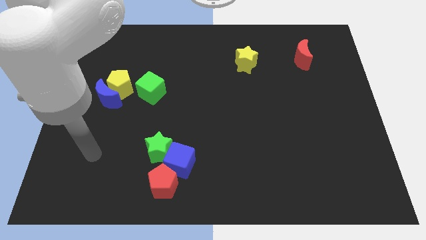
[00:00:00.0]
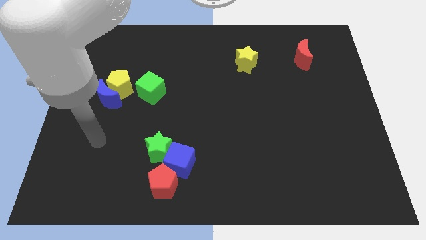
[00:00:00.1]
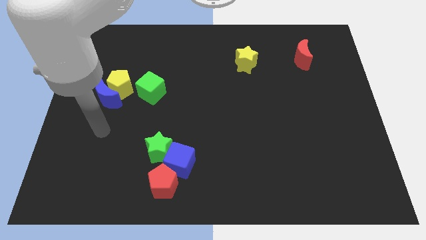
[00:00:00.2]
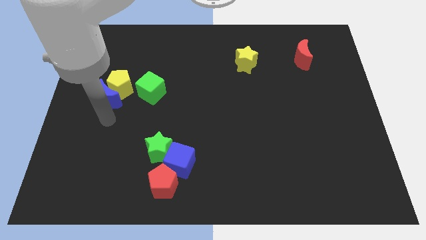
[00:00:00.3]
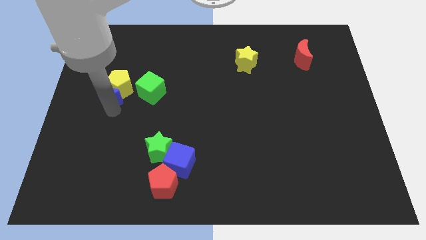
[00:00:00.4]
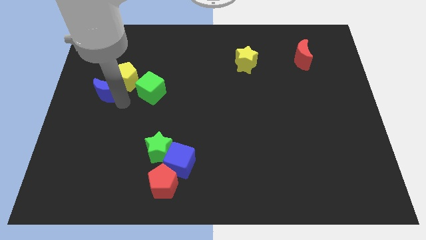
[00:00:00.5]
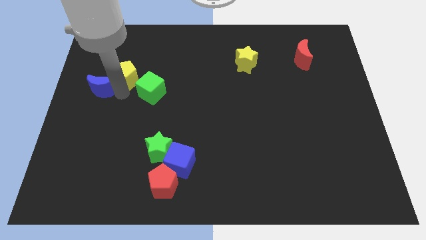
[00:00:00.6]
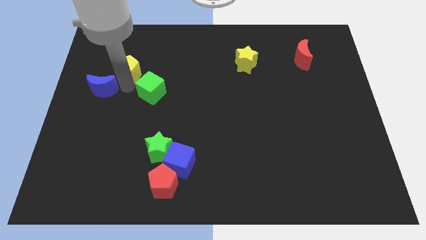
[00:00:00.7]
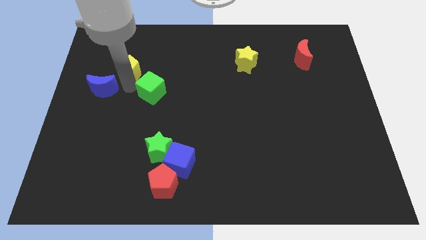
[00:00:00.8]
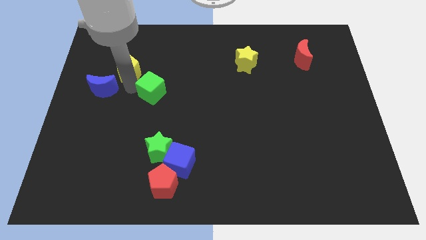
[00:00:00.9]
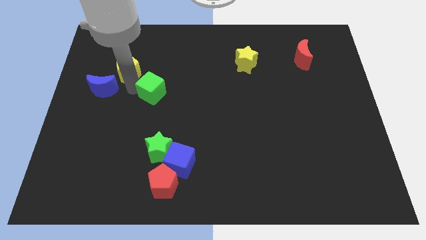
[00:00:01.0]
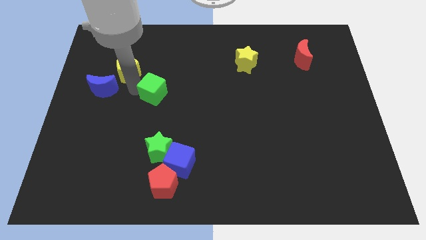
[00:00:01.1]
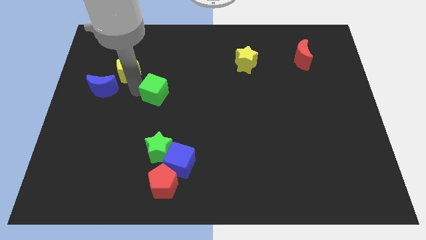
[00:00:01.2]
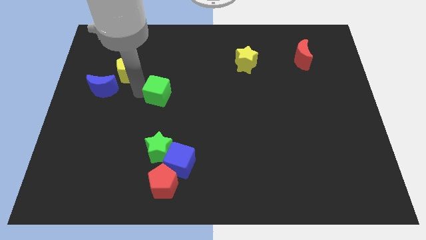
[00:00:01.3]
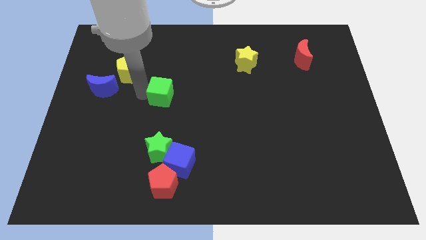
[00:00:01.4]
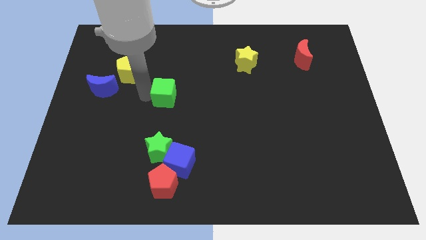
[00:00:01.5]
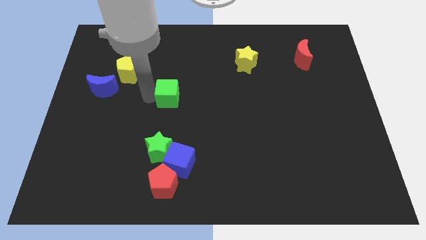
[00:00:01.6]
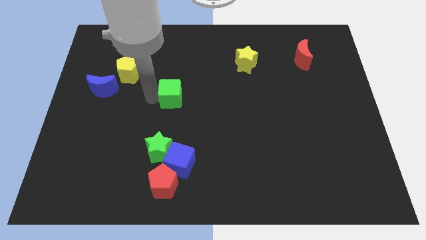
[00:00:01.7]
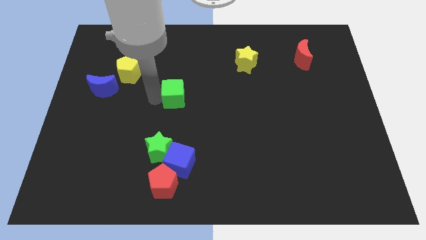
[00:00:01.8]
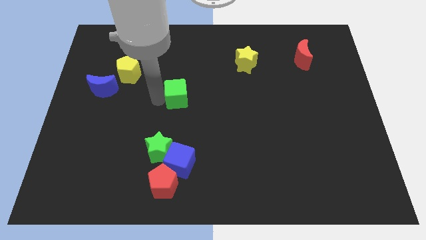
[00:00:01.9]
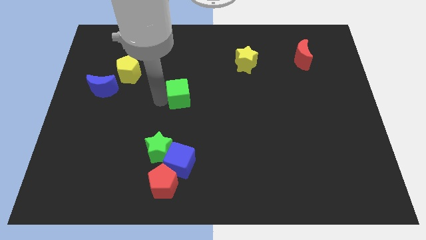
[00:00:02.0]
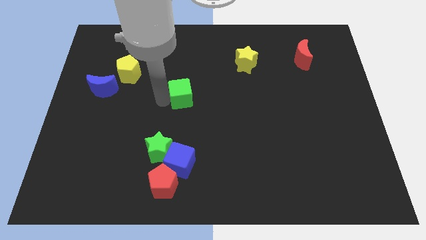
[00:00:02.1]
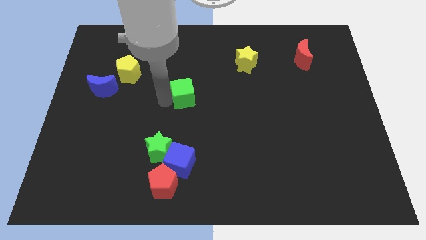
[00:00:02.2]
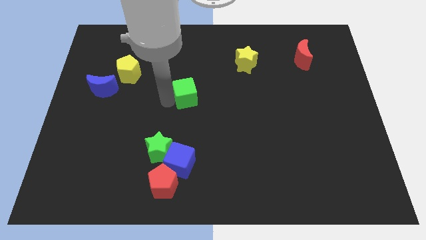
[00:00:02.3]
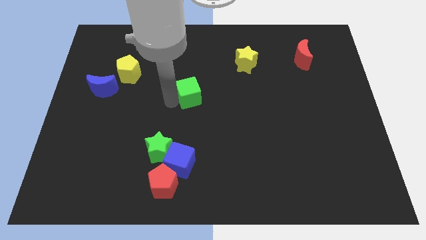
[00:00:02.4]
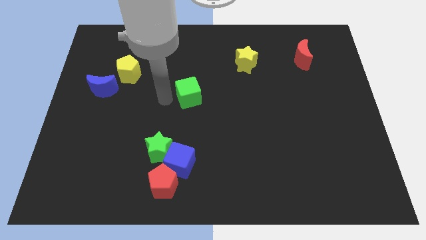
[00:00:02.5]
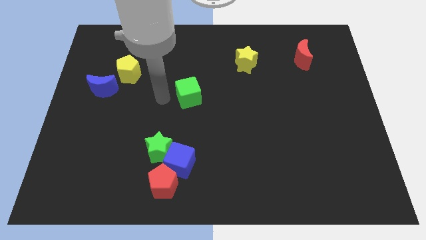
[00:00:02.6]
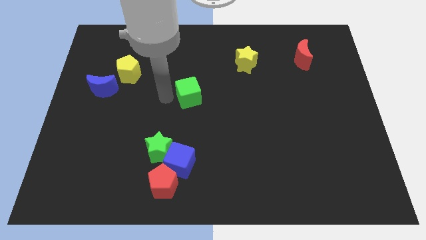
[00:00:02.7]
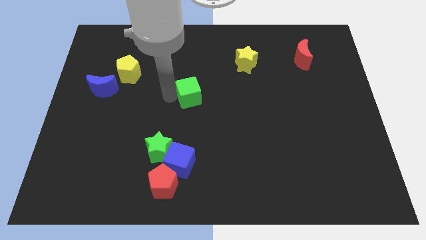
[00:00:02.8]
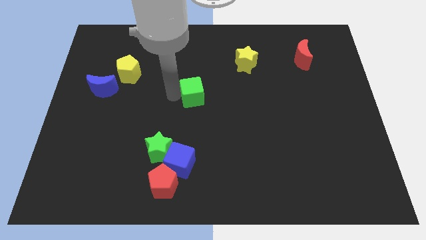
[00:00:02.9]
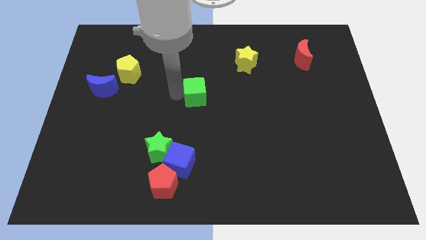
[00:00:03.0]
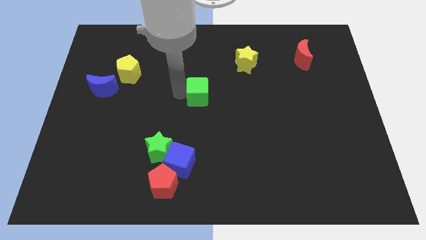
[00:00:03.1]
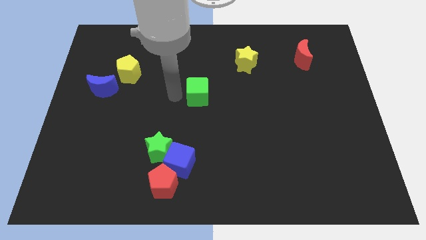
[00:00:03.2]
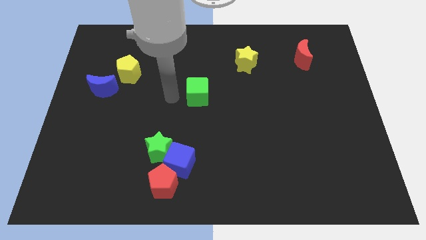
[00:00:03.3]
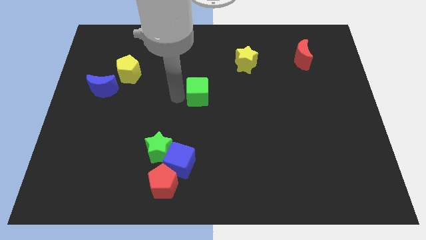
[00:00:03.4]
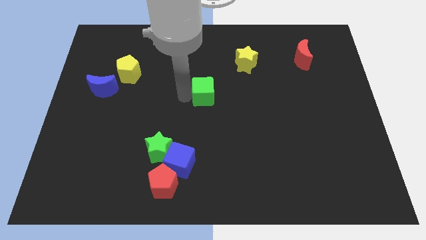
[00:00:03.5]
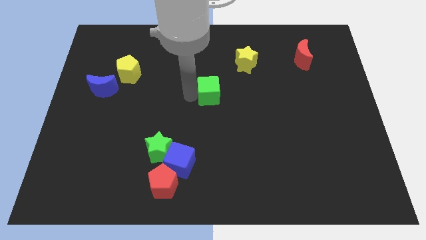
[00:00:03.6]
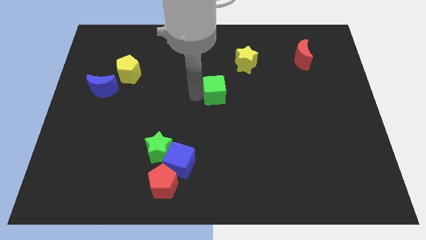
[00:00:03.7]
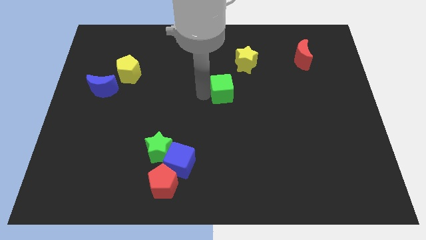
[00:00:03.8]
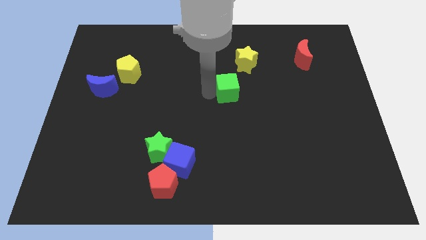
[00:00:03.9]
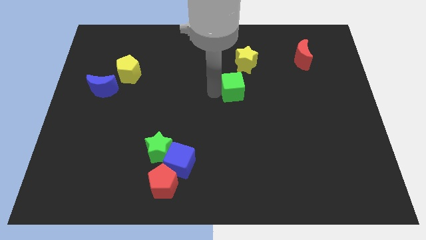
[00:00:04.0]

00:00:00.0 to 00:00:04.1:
move the green cube to the right

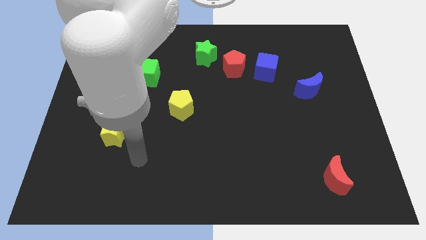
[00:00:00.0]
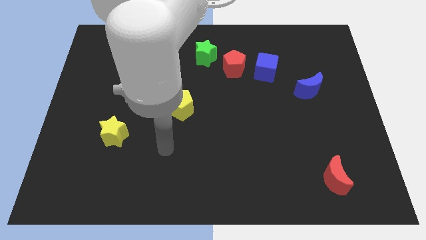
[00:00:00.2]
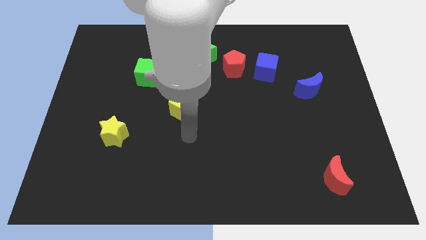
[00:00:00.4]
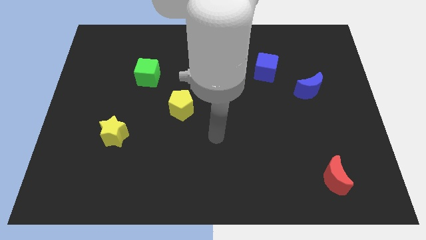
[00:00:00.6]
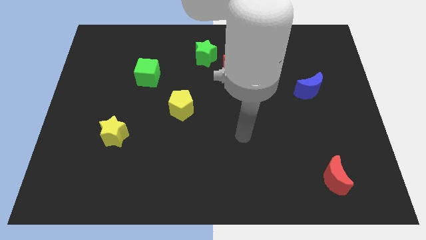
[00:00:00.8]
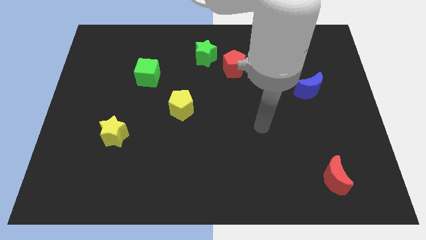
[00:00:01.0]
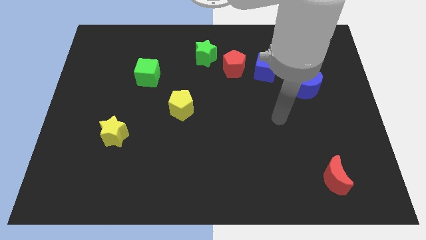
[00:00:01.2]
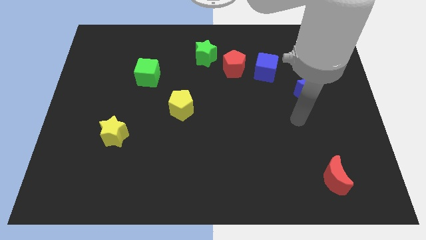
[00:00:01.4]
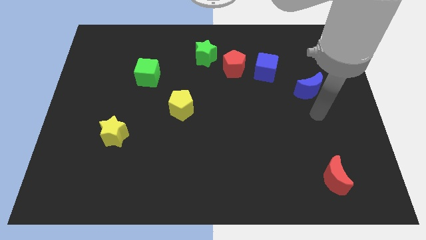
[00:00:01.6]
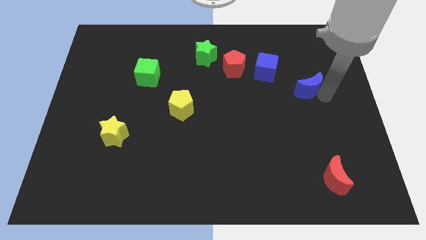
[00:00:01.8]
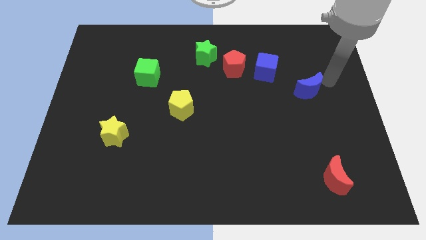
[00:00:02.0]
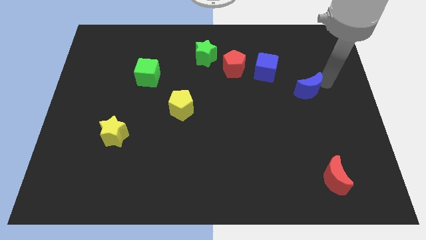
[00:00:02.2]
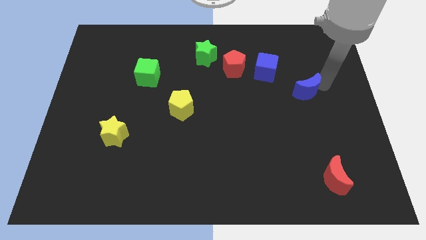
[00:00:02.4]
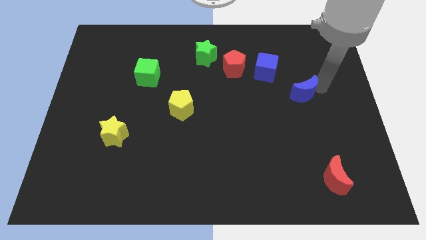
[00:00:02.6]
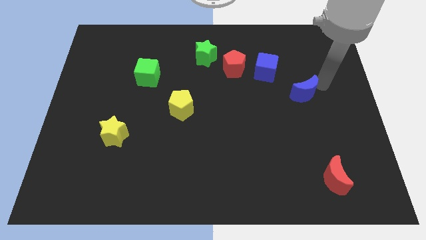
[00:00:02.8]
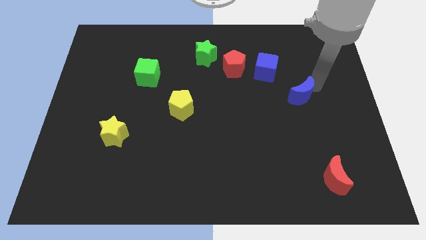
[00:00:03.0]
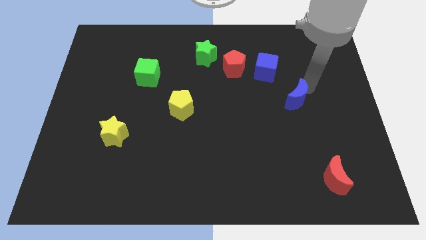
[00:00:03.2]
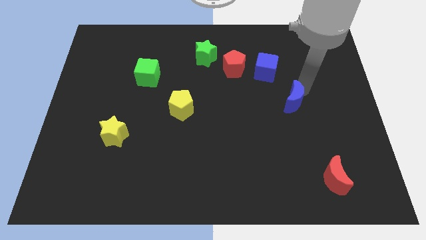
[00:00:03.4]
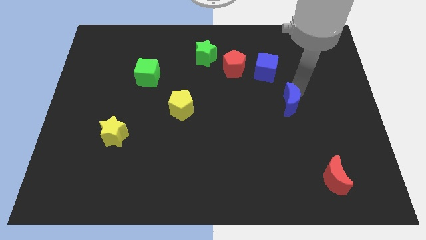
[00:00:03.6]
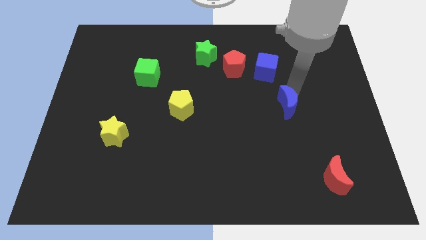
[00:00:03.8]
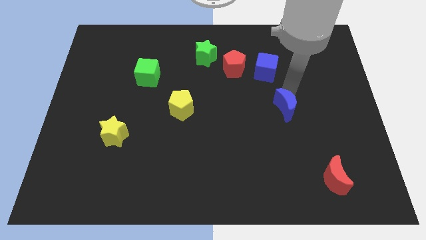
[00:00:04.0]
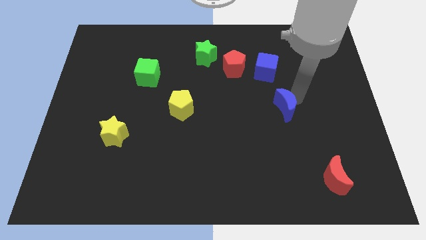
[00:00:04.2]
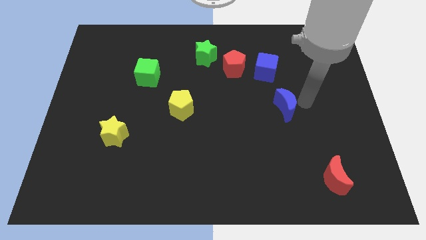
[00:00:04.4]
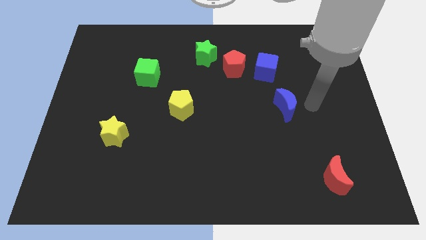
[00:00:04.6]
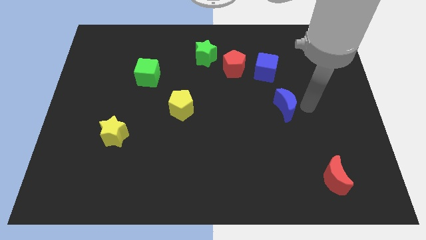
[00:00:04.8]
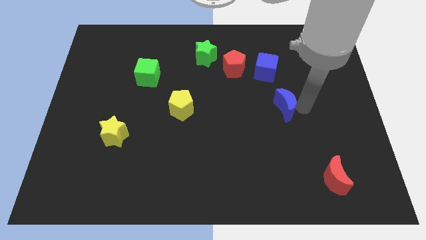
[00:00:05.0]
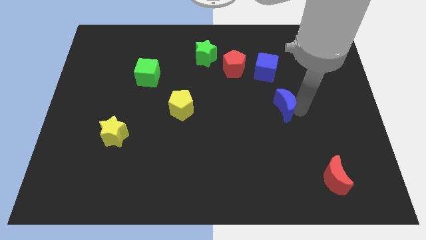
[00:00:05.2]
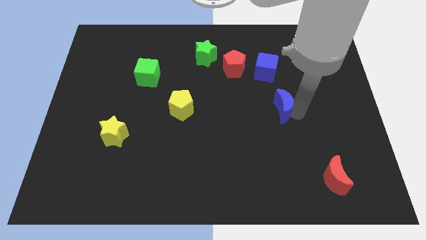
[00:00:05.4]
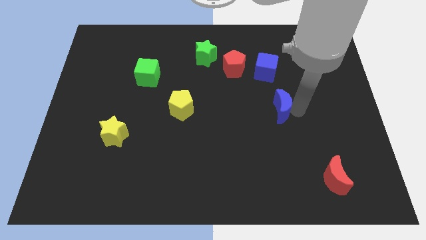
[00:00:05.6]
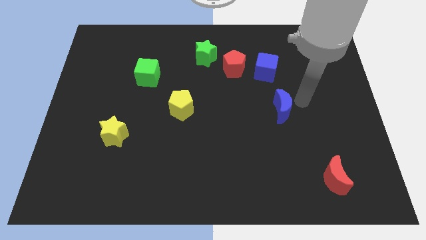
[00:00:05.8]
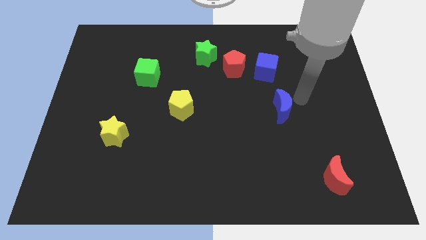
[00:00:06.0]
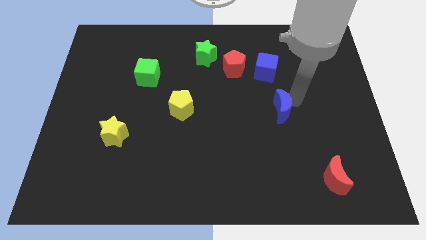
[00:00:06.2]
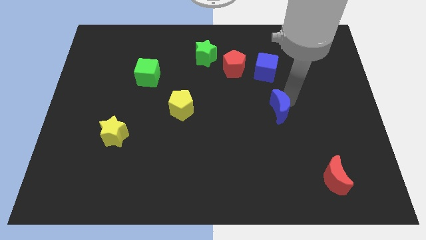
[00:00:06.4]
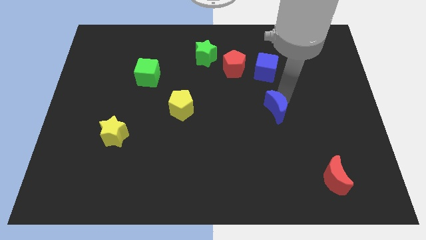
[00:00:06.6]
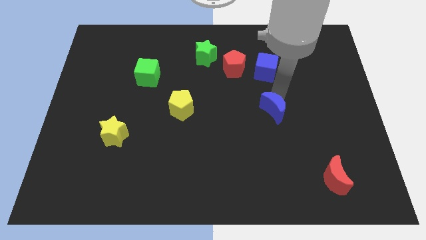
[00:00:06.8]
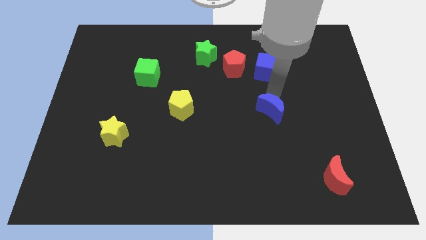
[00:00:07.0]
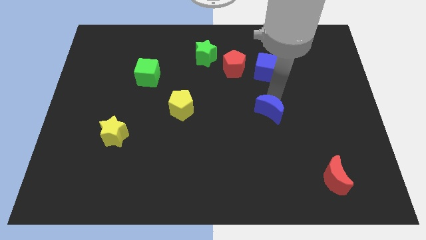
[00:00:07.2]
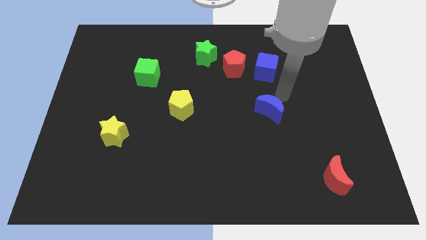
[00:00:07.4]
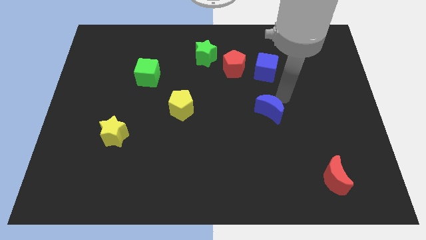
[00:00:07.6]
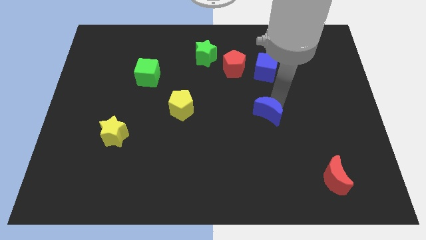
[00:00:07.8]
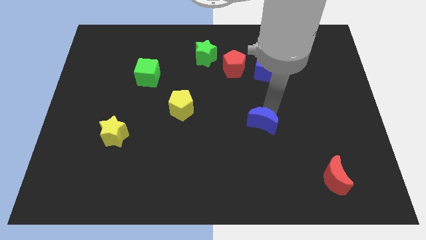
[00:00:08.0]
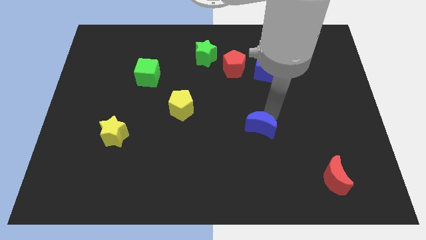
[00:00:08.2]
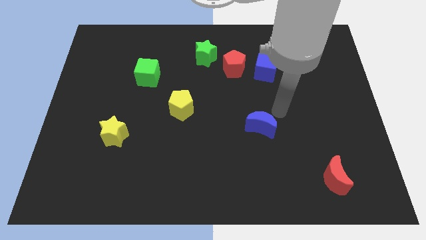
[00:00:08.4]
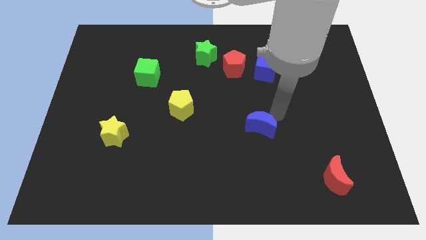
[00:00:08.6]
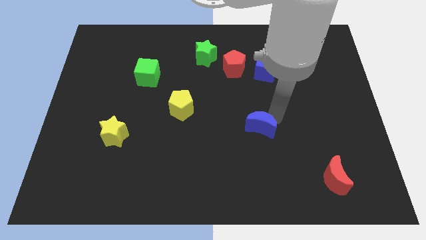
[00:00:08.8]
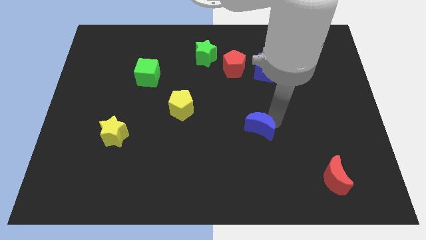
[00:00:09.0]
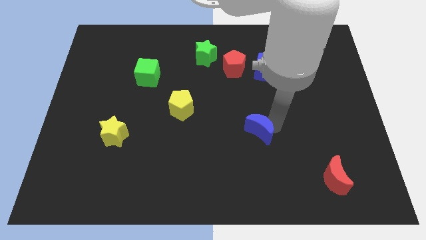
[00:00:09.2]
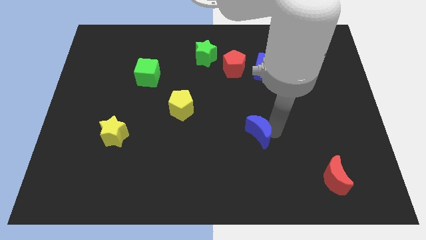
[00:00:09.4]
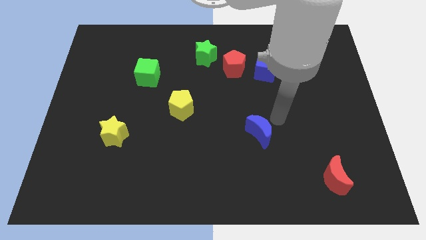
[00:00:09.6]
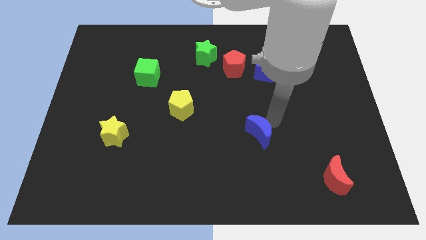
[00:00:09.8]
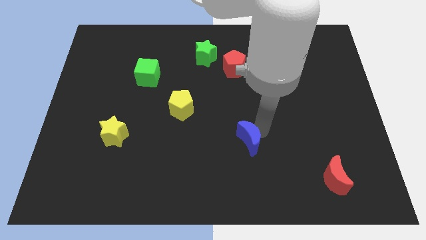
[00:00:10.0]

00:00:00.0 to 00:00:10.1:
push the blue moon down and left
